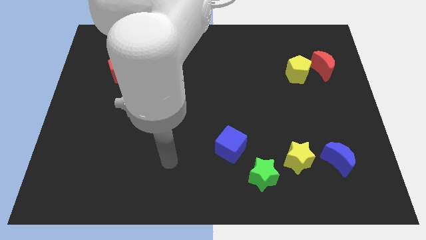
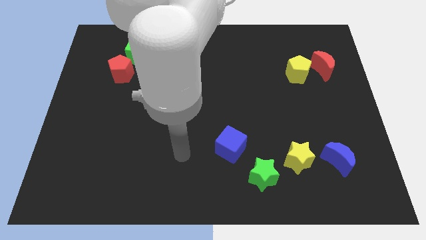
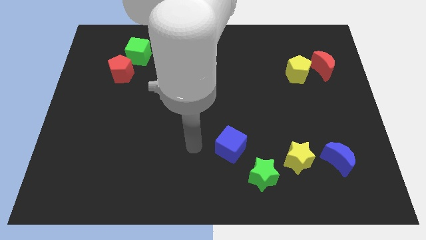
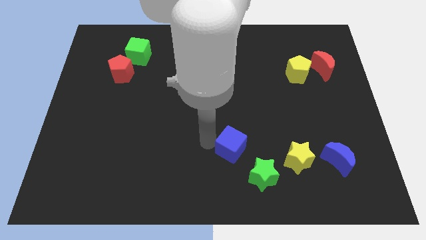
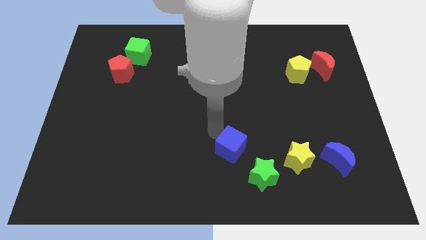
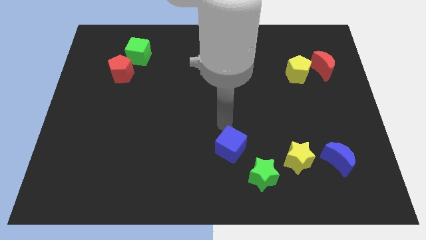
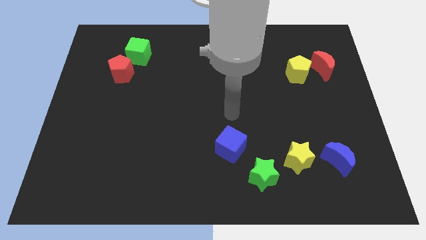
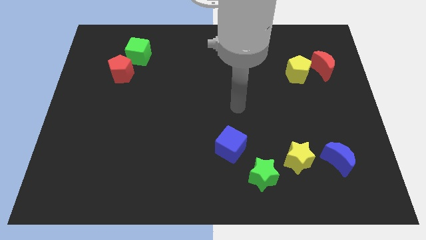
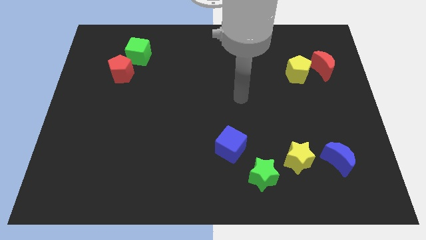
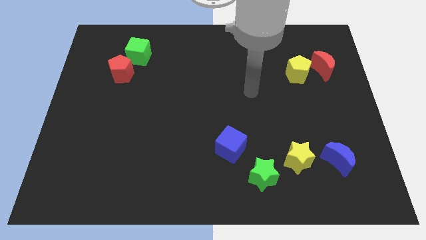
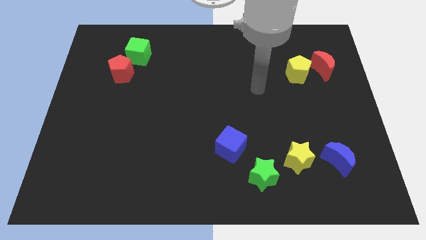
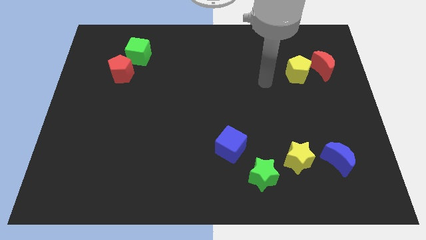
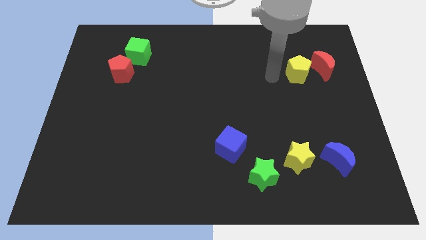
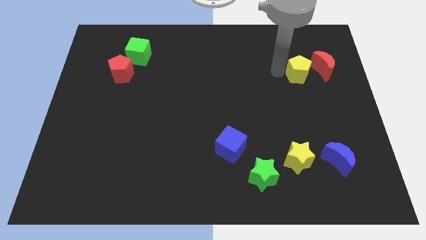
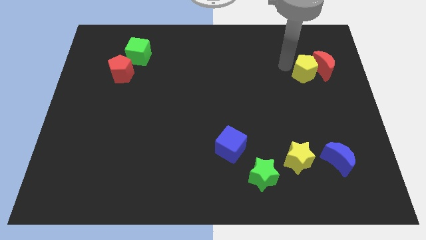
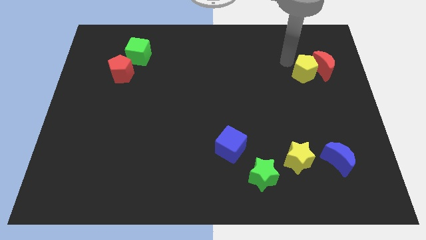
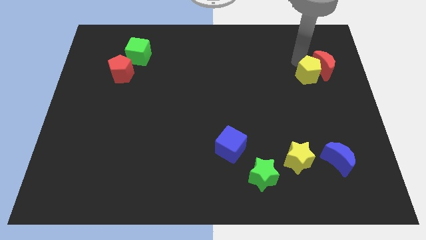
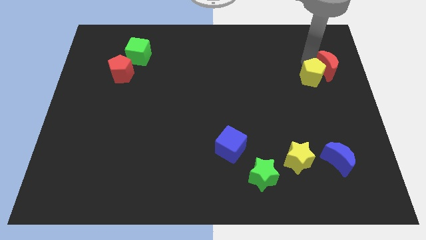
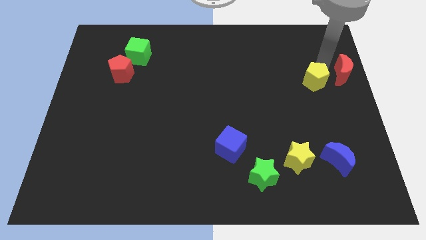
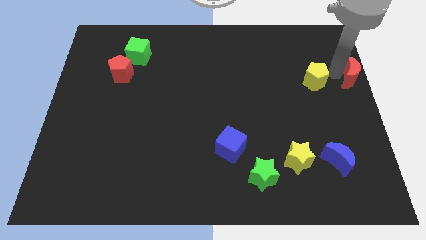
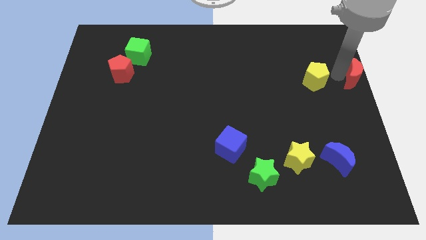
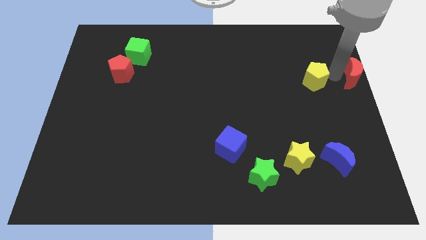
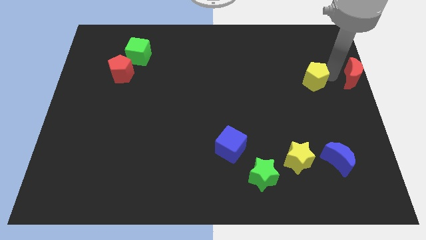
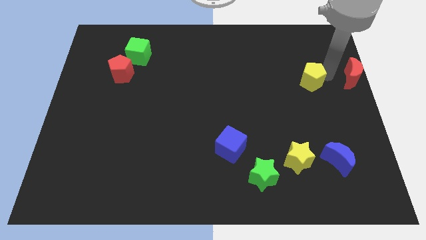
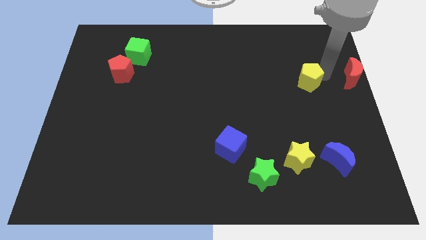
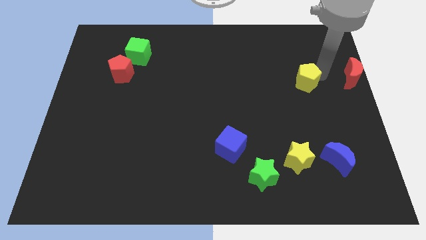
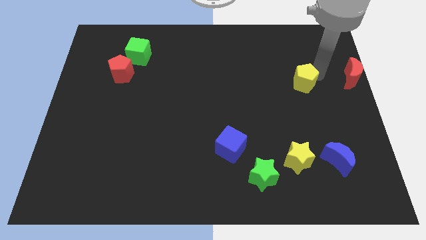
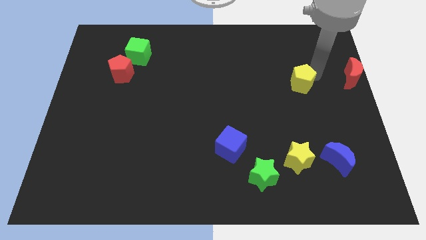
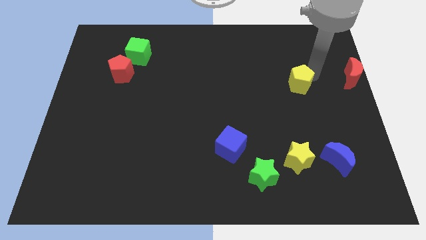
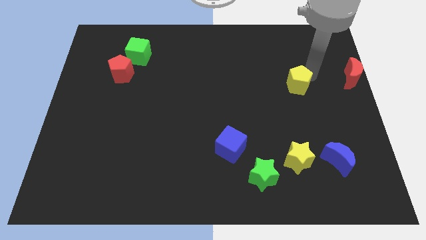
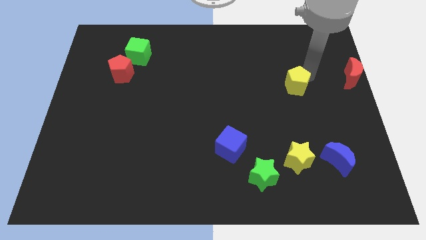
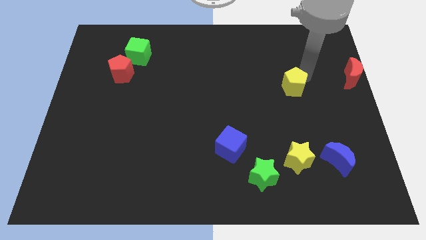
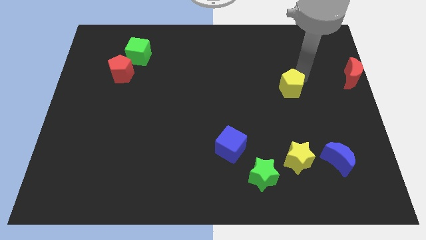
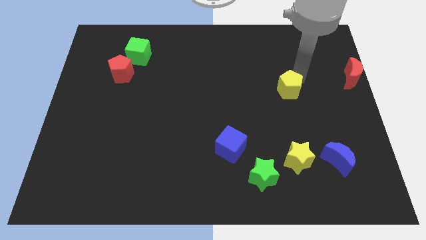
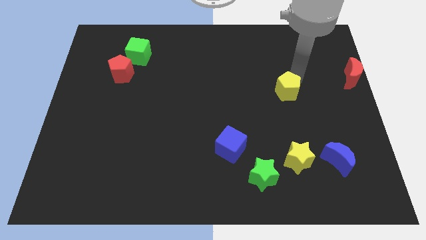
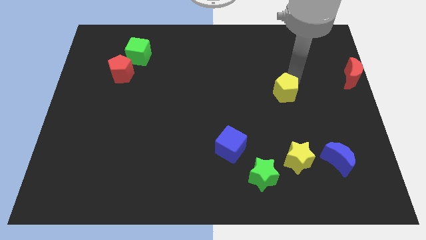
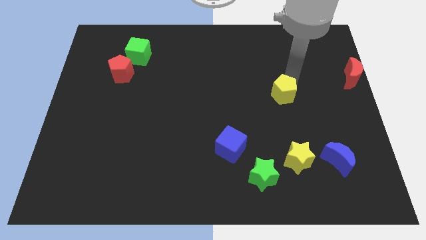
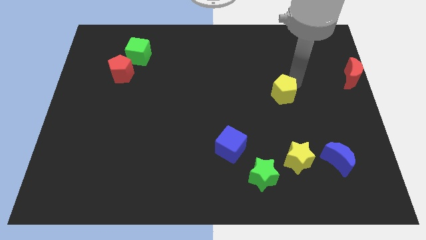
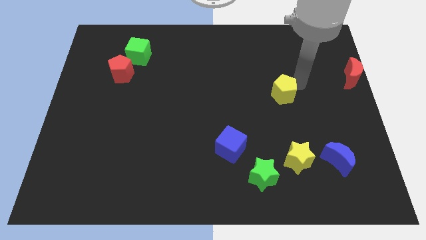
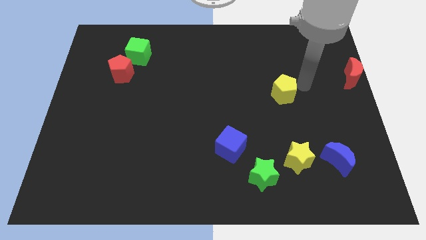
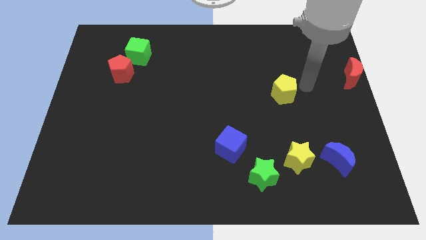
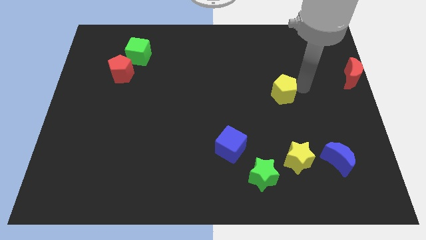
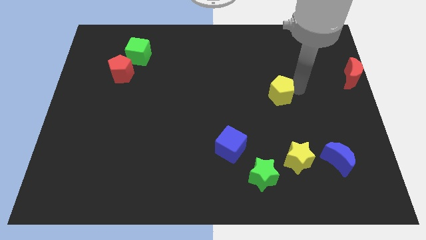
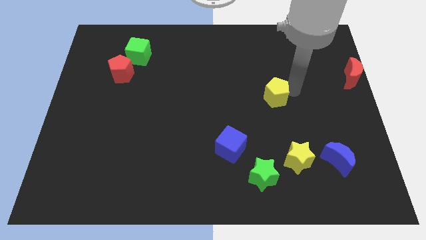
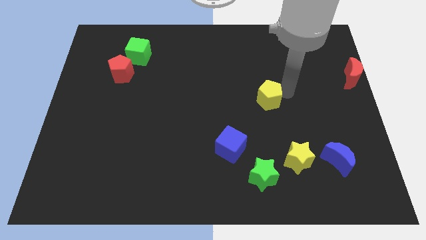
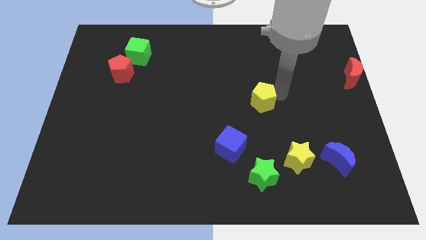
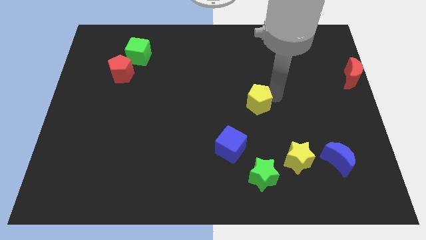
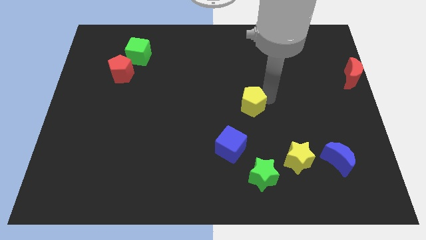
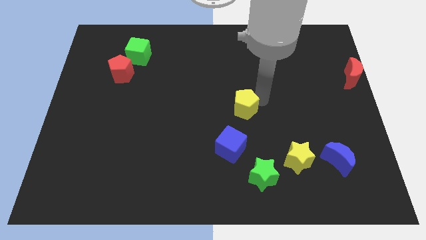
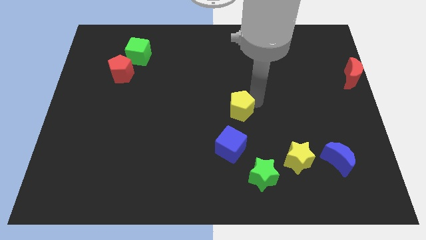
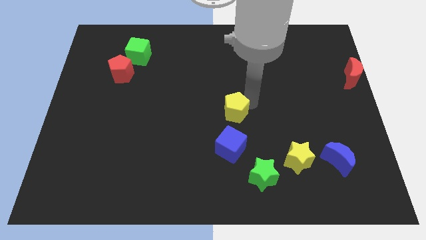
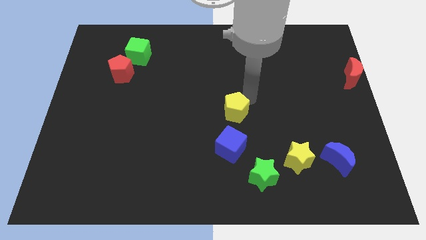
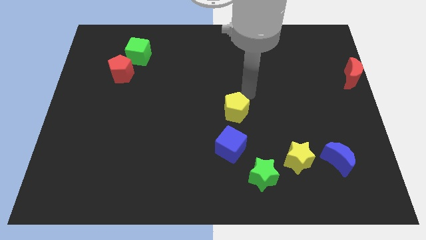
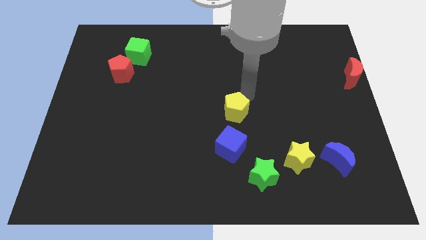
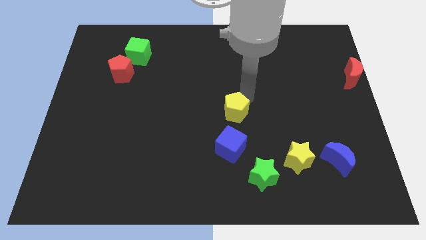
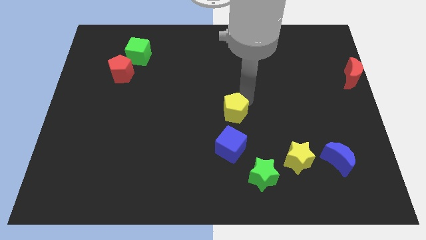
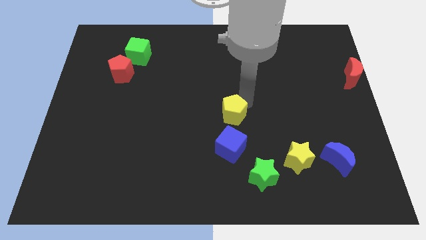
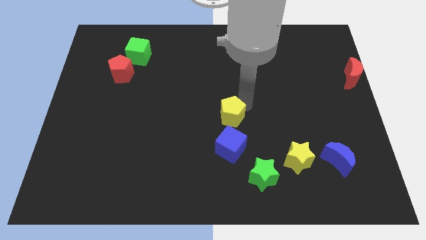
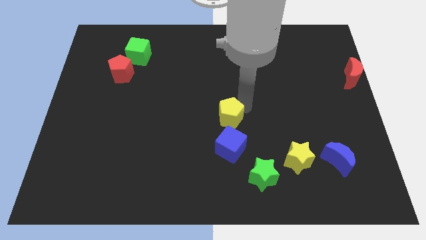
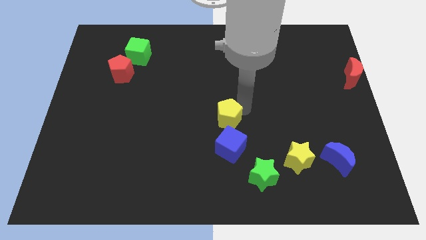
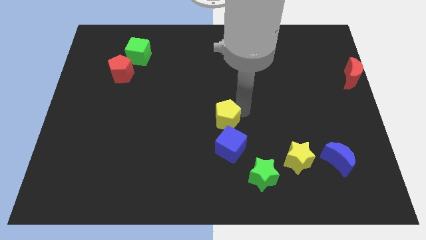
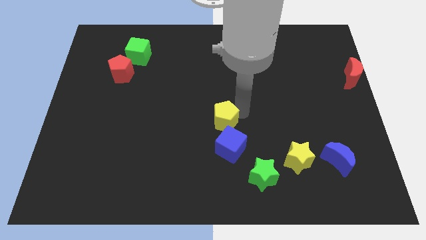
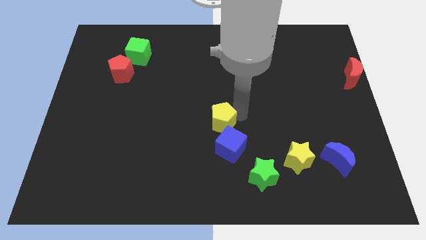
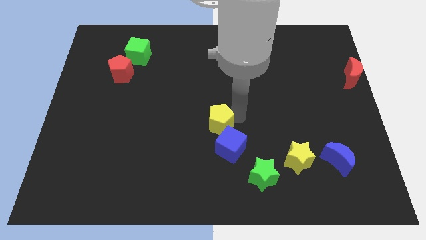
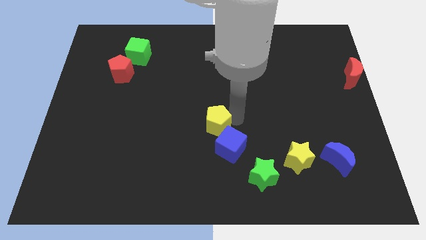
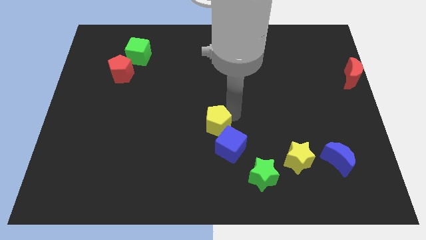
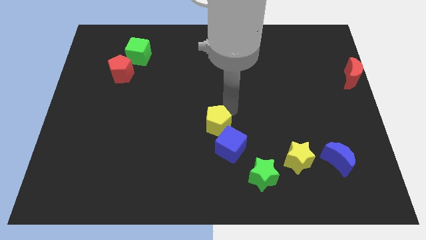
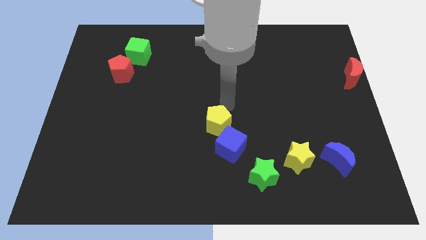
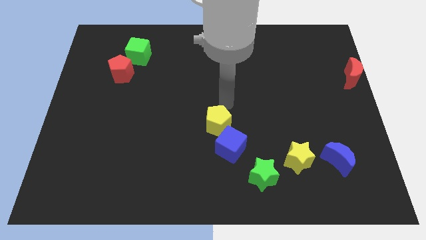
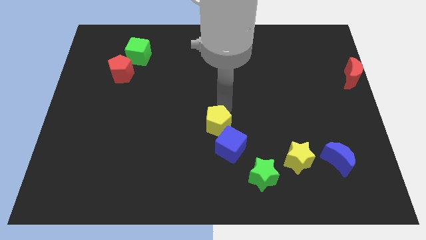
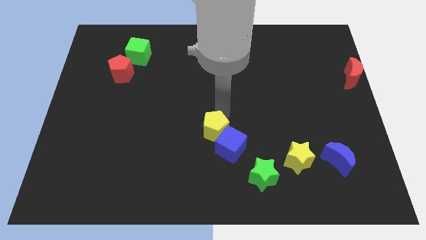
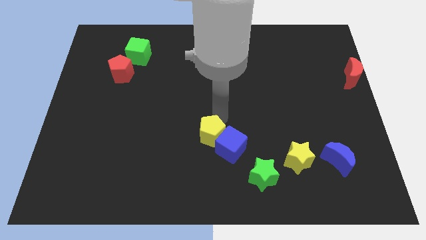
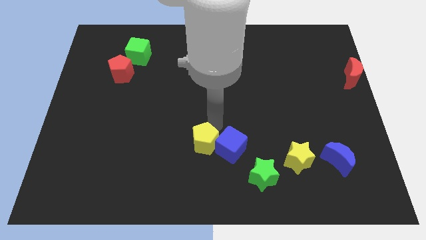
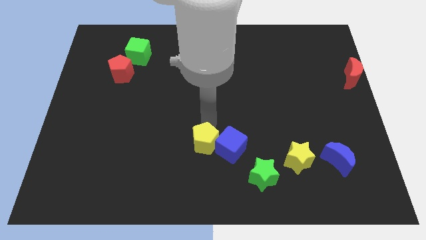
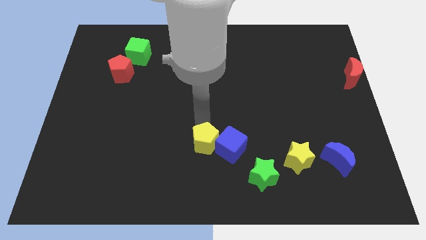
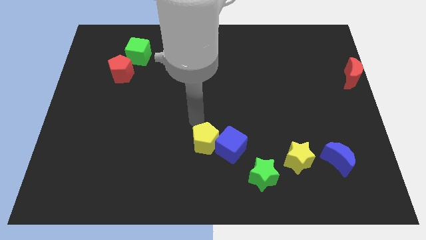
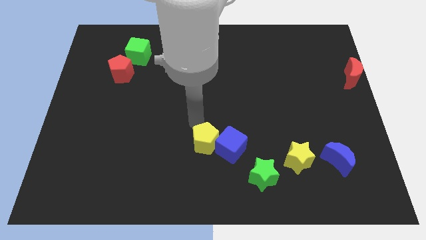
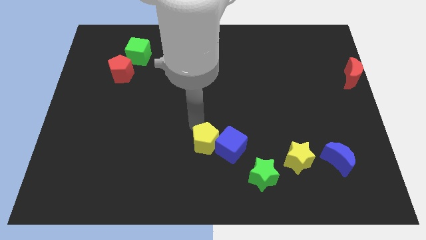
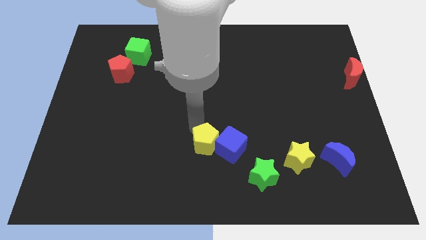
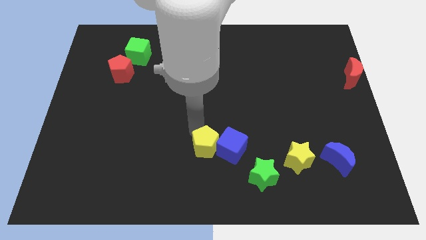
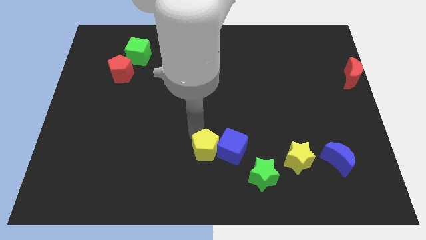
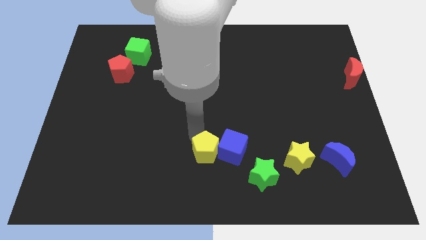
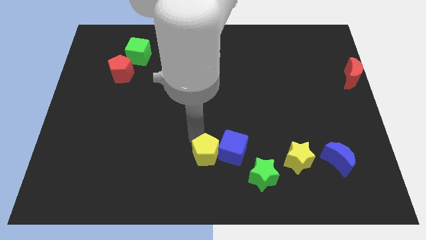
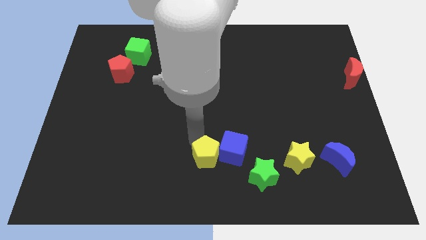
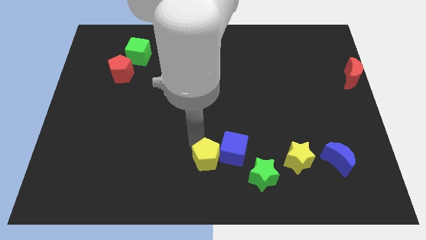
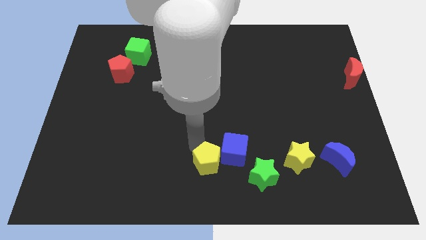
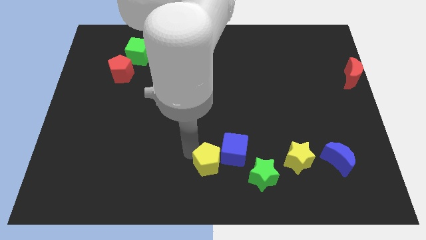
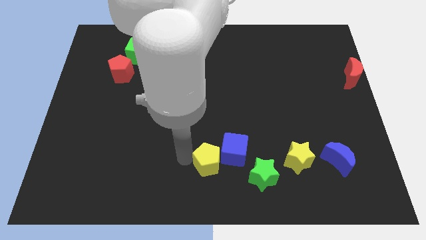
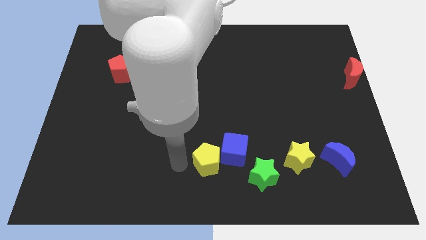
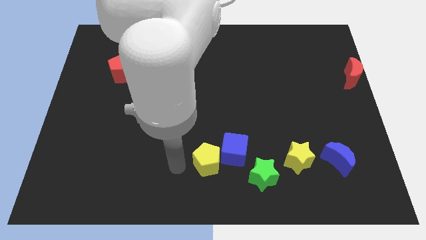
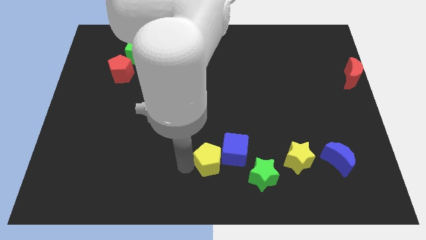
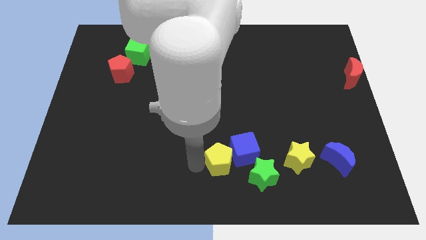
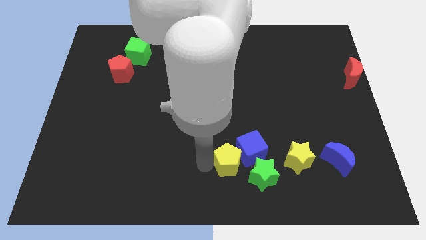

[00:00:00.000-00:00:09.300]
push the yellow pentagon to the left of the yellow star
